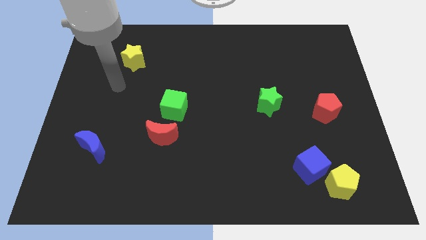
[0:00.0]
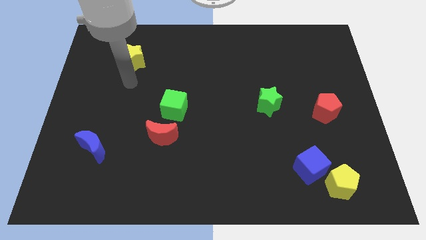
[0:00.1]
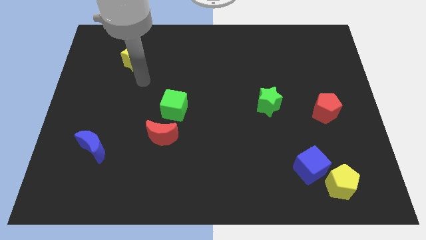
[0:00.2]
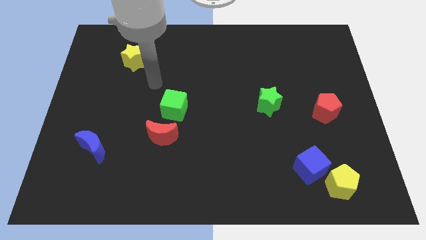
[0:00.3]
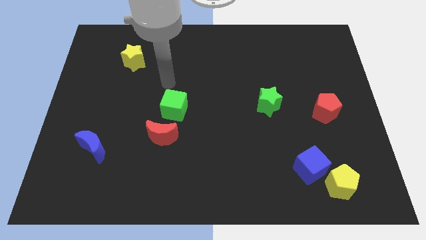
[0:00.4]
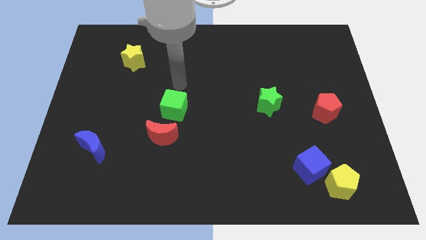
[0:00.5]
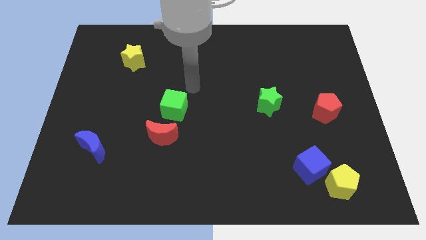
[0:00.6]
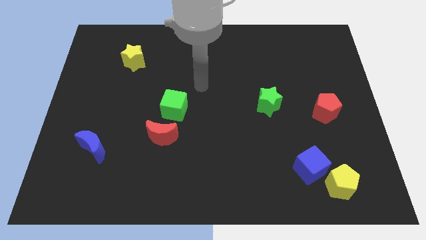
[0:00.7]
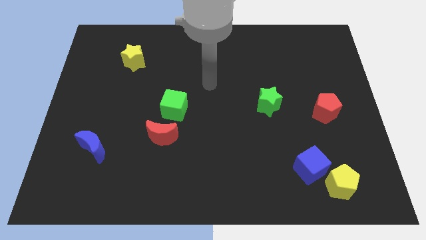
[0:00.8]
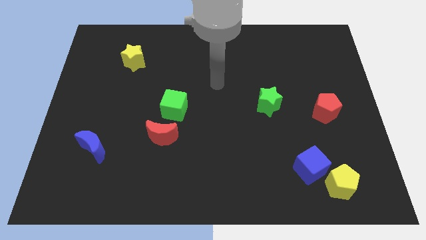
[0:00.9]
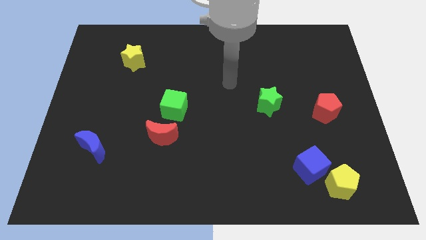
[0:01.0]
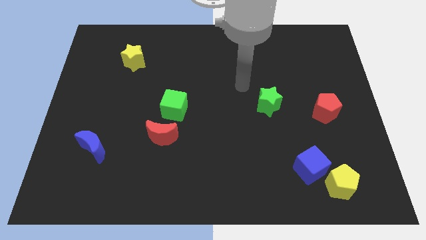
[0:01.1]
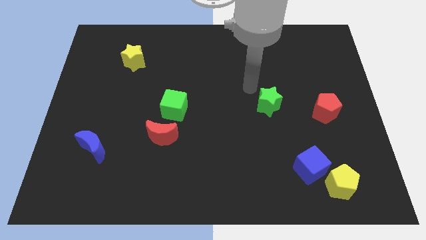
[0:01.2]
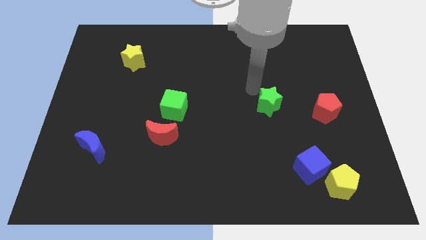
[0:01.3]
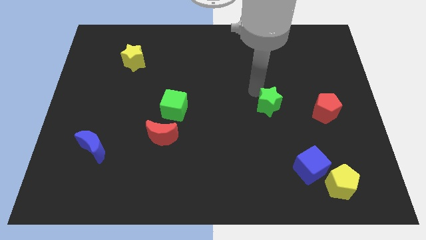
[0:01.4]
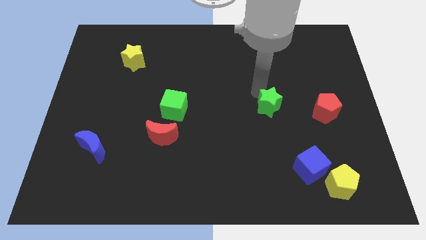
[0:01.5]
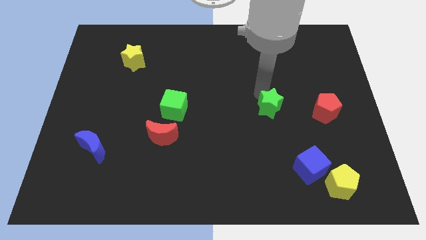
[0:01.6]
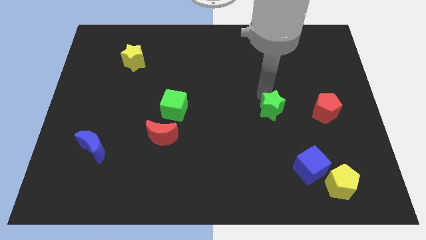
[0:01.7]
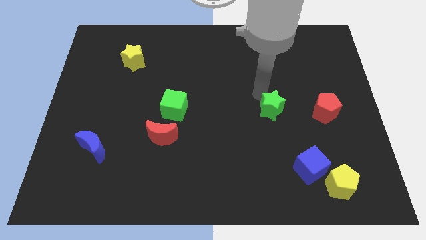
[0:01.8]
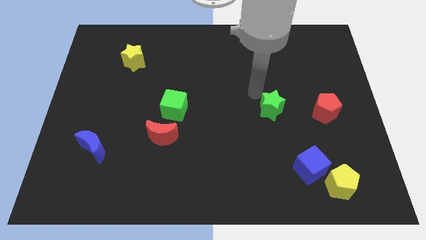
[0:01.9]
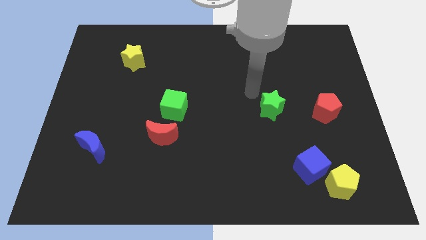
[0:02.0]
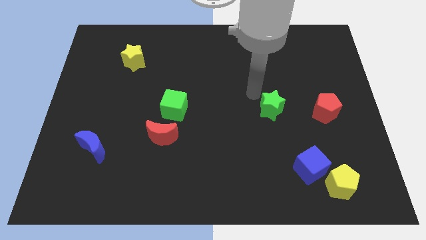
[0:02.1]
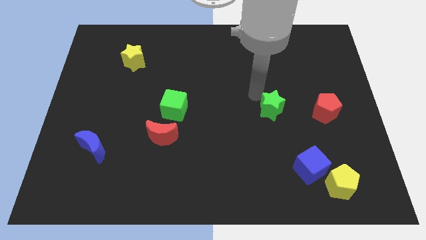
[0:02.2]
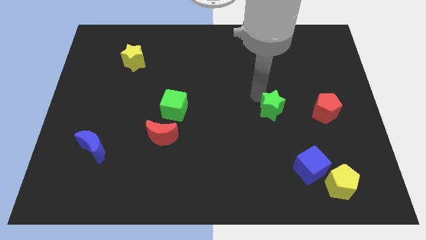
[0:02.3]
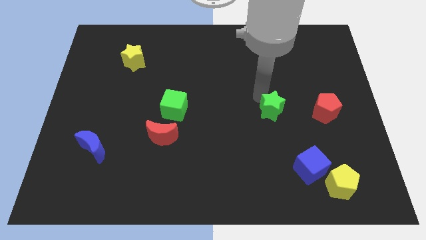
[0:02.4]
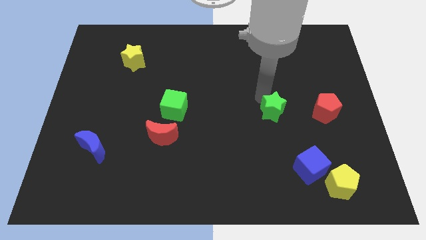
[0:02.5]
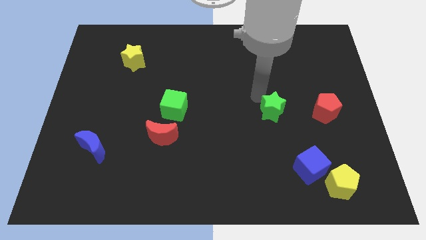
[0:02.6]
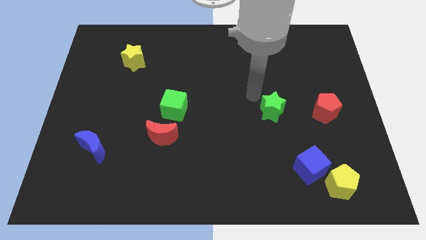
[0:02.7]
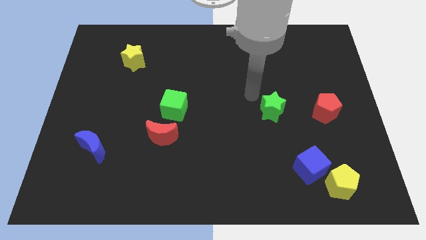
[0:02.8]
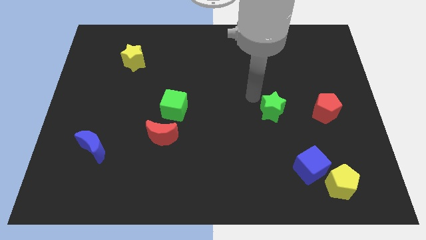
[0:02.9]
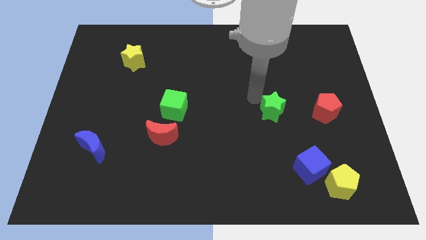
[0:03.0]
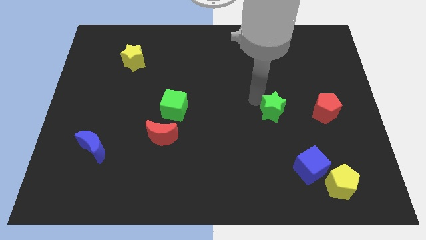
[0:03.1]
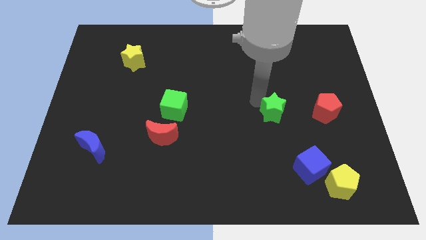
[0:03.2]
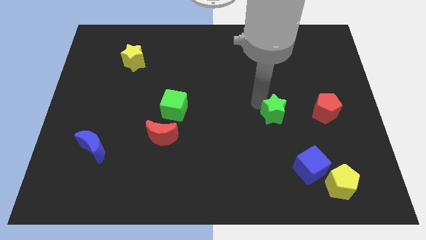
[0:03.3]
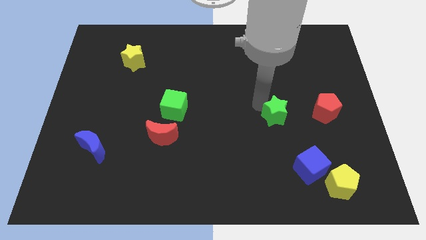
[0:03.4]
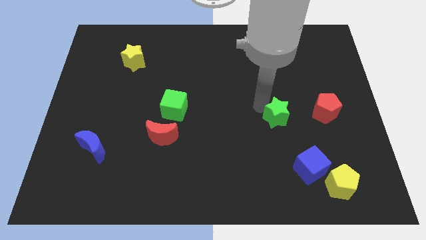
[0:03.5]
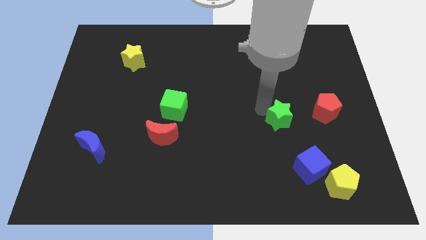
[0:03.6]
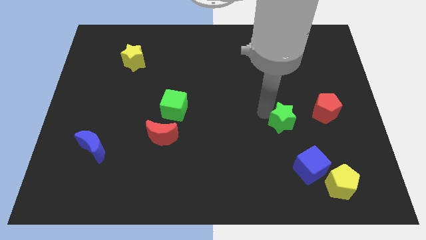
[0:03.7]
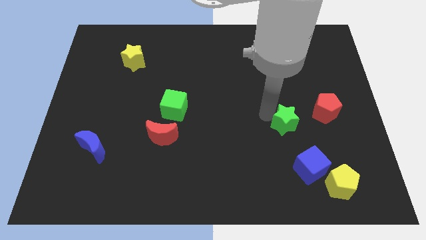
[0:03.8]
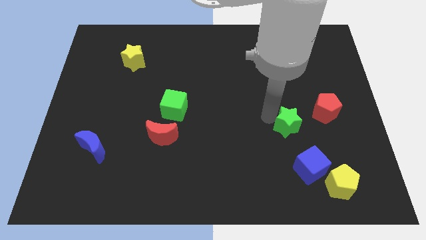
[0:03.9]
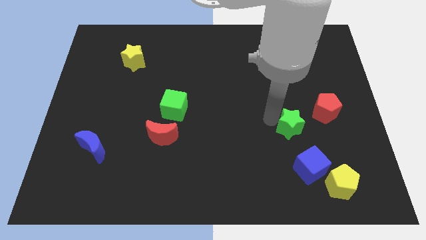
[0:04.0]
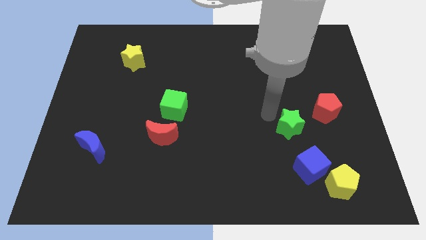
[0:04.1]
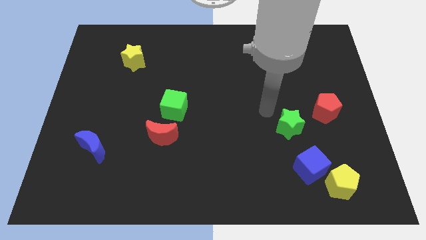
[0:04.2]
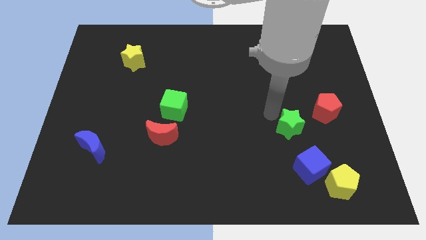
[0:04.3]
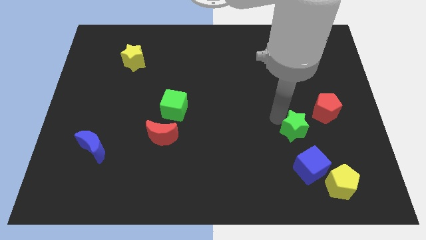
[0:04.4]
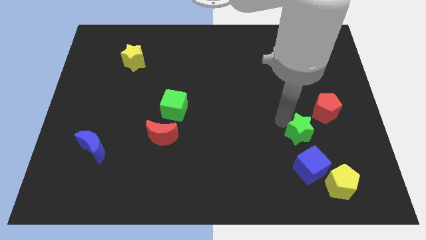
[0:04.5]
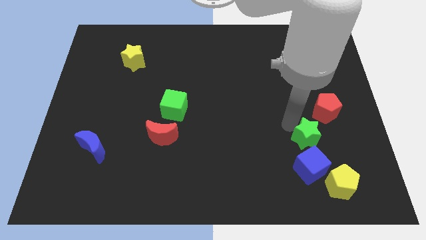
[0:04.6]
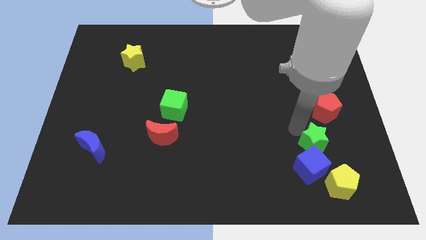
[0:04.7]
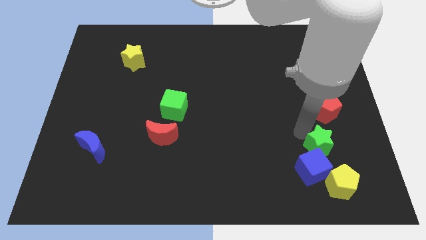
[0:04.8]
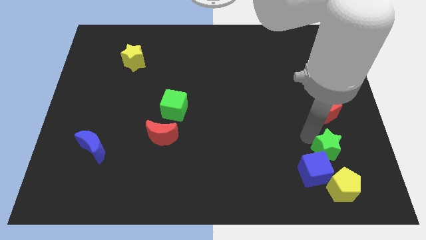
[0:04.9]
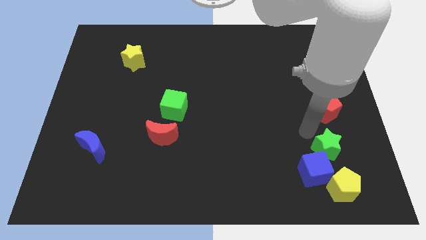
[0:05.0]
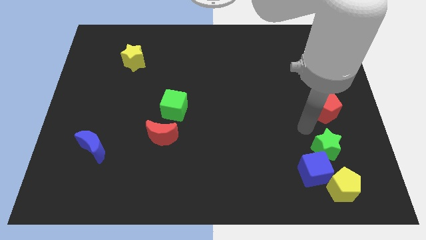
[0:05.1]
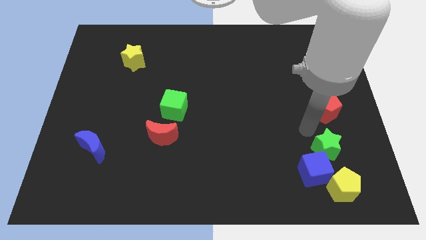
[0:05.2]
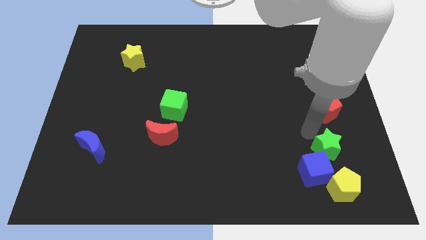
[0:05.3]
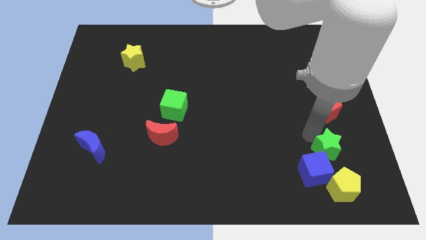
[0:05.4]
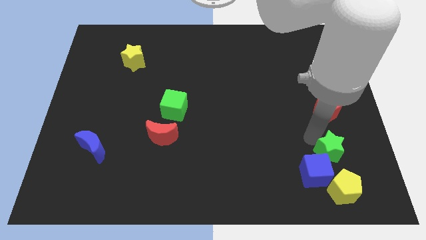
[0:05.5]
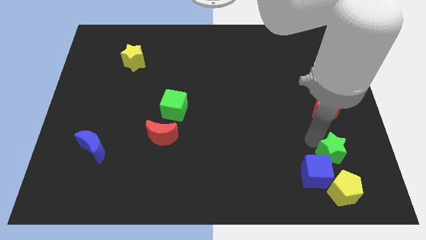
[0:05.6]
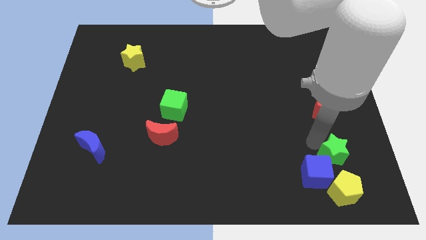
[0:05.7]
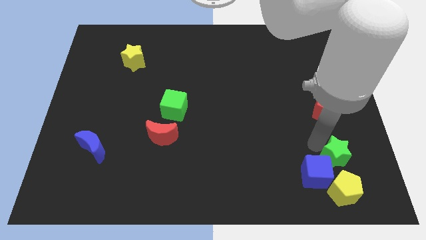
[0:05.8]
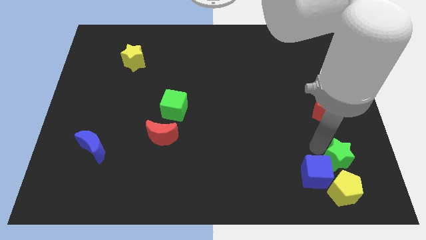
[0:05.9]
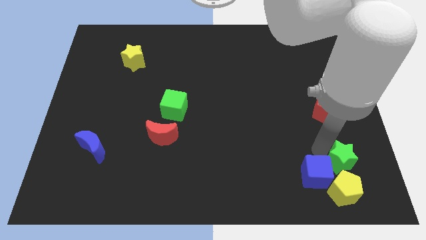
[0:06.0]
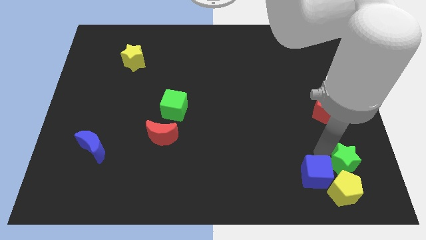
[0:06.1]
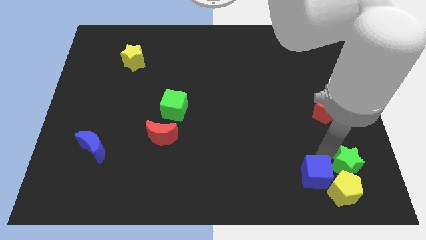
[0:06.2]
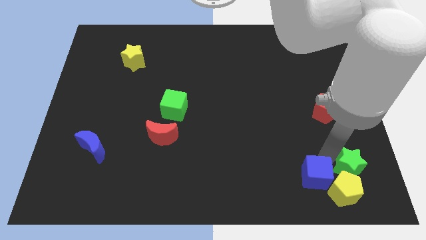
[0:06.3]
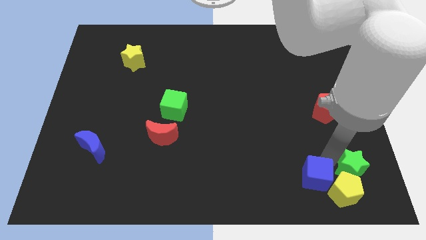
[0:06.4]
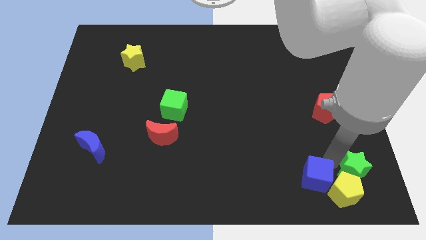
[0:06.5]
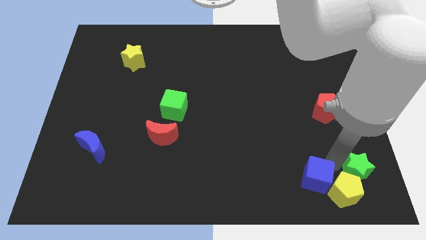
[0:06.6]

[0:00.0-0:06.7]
push the green star to the bottom right corner
